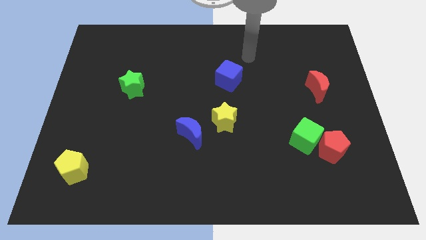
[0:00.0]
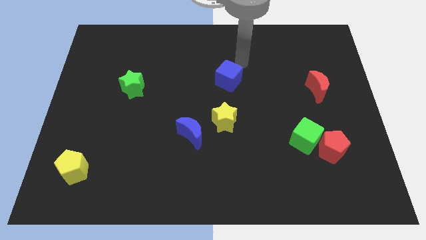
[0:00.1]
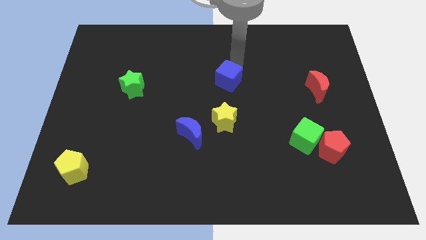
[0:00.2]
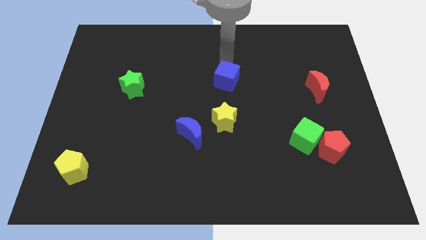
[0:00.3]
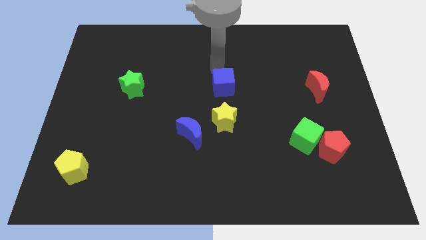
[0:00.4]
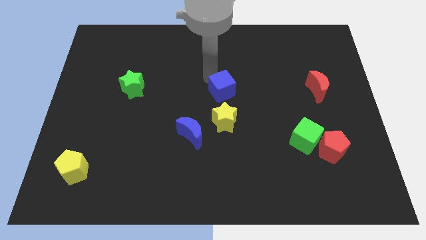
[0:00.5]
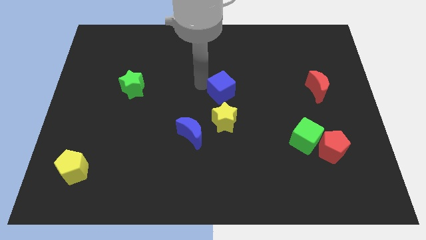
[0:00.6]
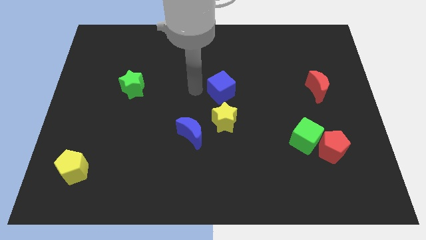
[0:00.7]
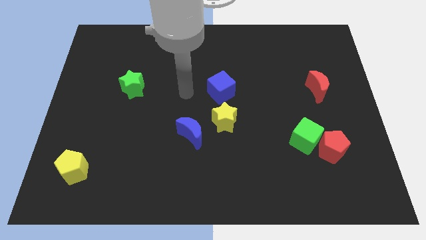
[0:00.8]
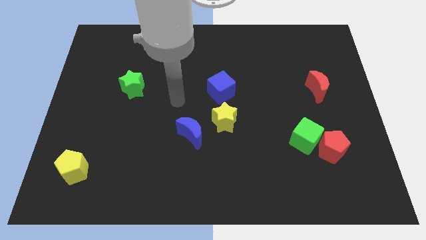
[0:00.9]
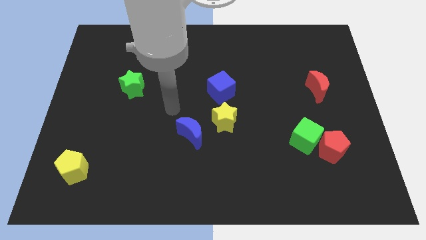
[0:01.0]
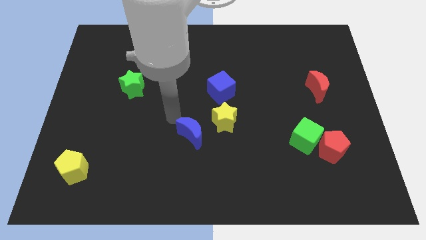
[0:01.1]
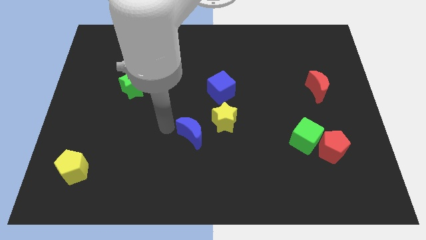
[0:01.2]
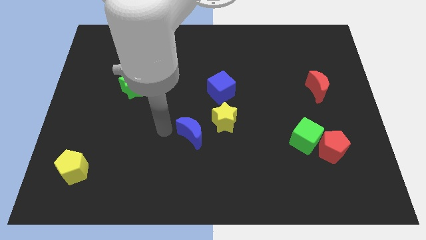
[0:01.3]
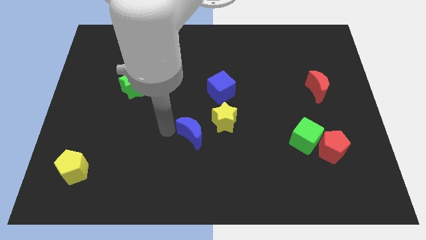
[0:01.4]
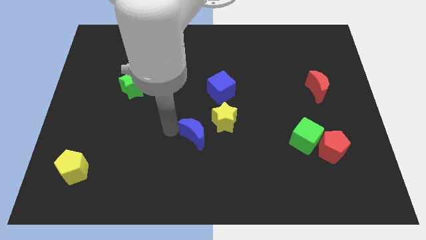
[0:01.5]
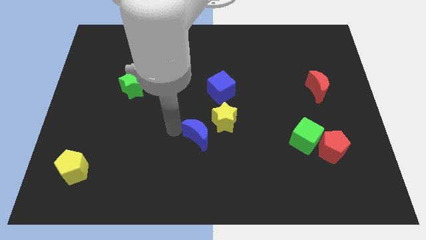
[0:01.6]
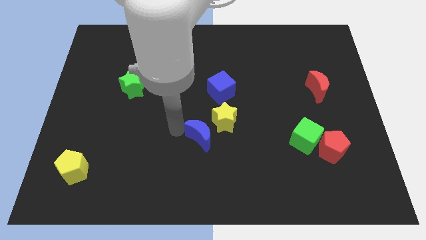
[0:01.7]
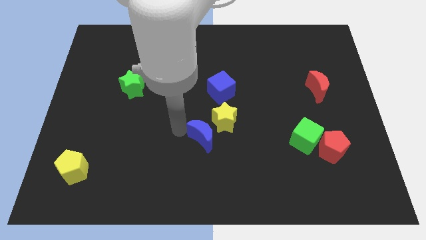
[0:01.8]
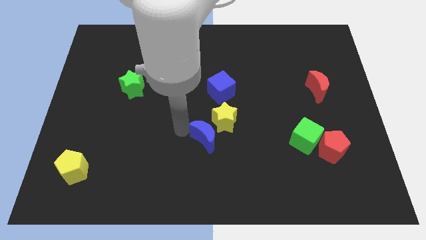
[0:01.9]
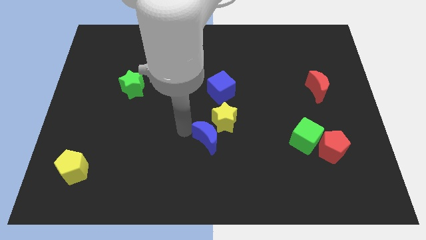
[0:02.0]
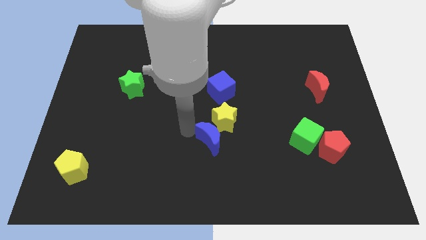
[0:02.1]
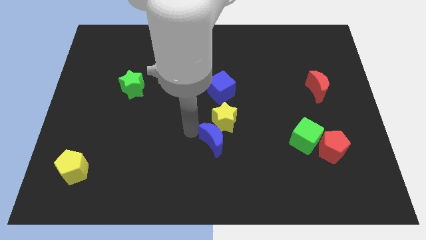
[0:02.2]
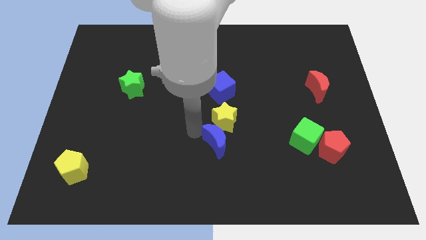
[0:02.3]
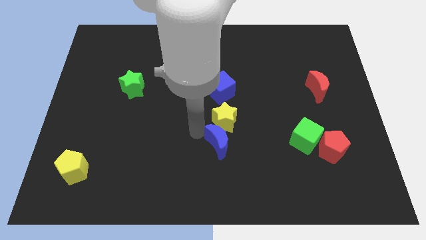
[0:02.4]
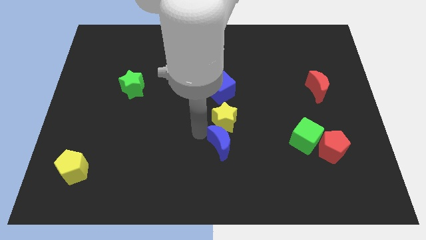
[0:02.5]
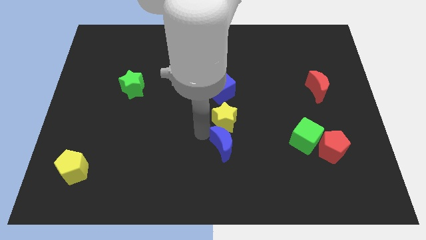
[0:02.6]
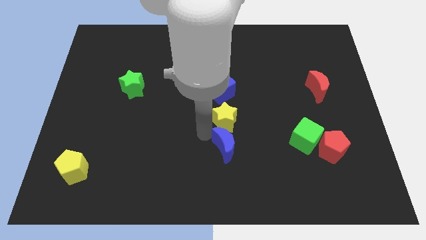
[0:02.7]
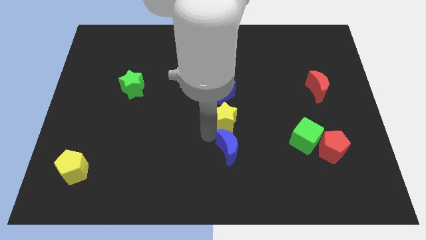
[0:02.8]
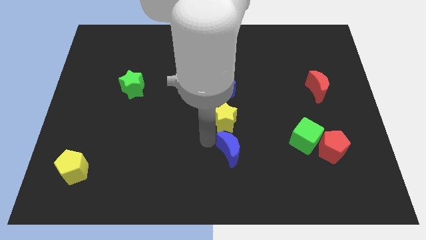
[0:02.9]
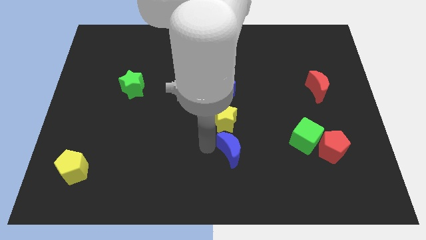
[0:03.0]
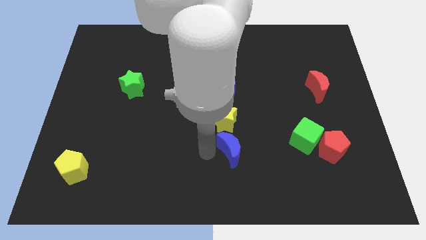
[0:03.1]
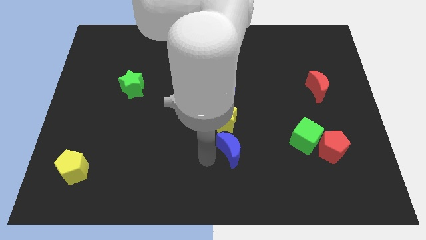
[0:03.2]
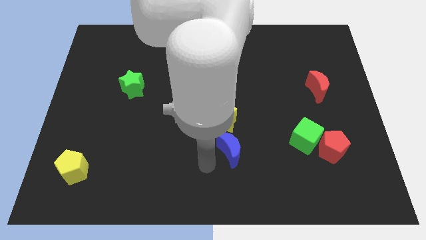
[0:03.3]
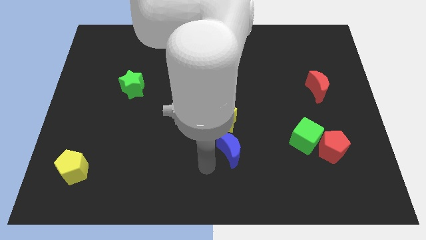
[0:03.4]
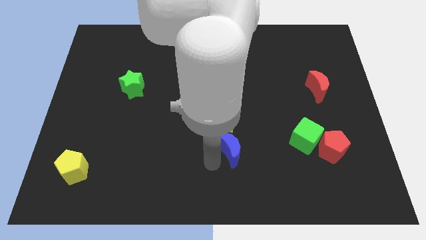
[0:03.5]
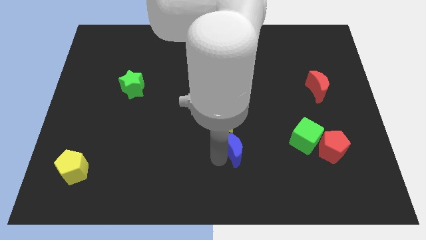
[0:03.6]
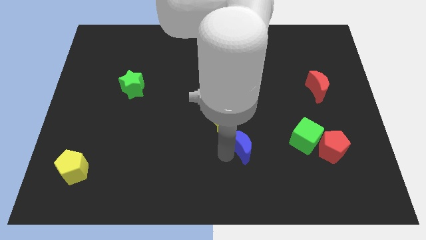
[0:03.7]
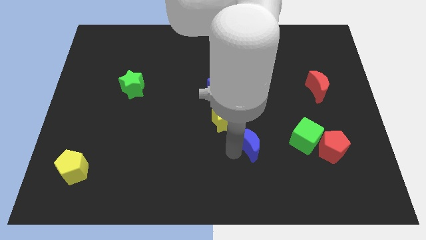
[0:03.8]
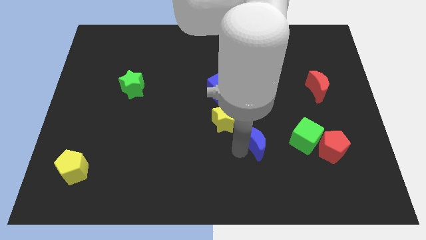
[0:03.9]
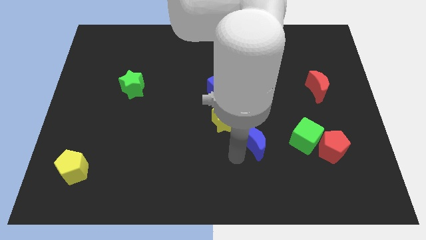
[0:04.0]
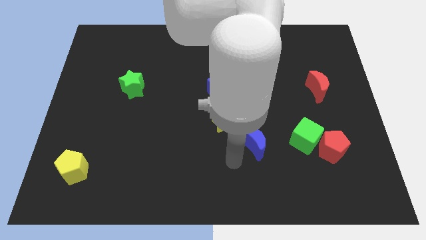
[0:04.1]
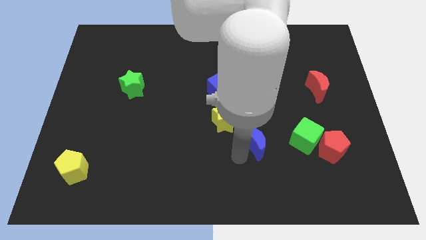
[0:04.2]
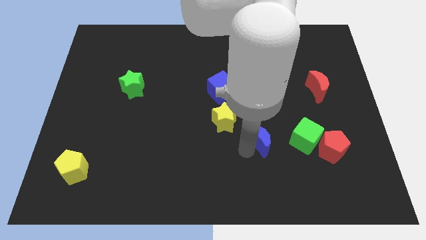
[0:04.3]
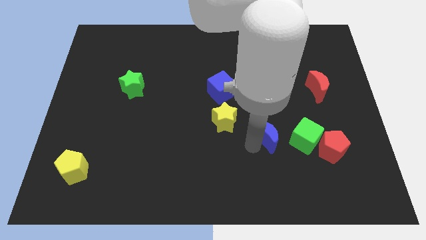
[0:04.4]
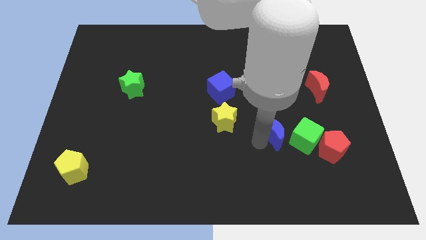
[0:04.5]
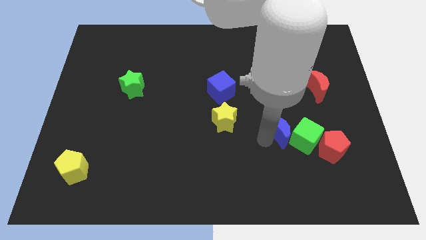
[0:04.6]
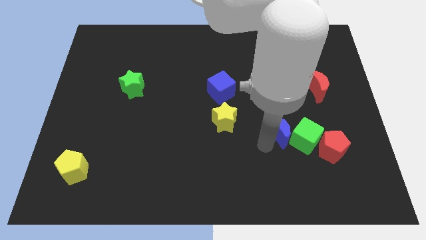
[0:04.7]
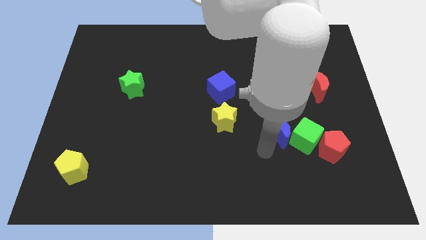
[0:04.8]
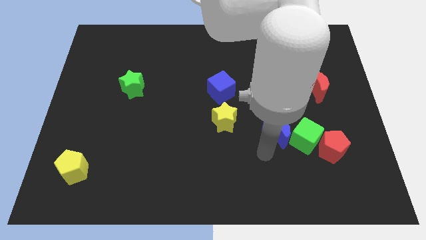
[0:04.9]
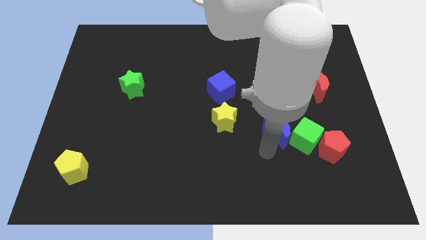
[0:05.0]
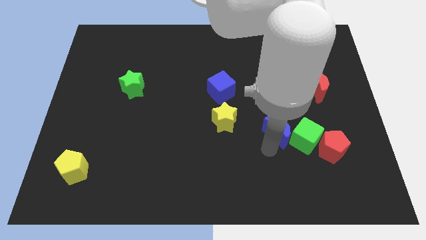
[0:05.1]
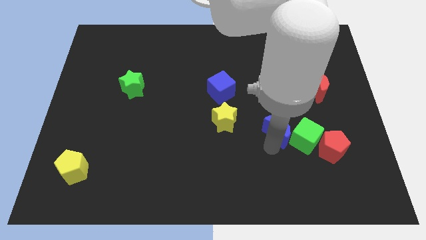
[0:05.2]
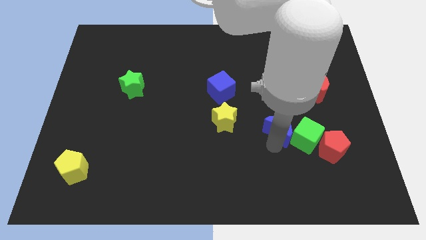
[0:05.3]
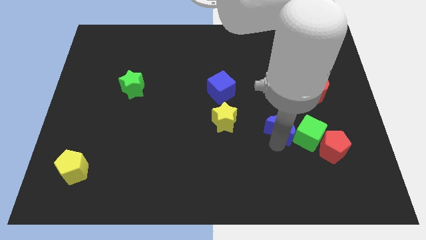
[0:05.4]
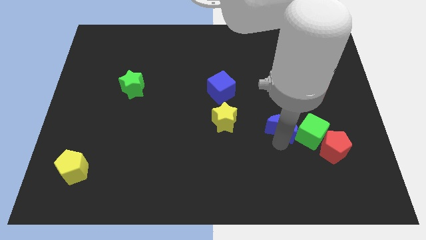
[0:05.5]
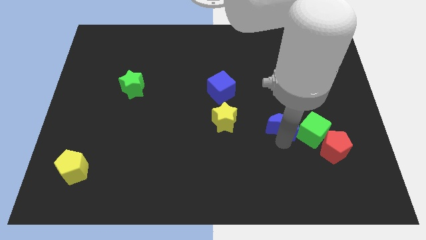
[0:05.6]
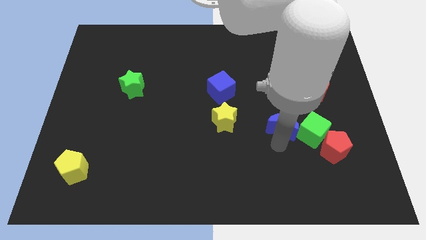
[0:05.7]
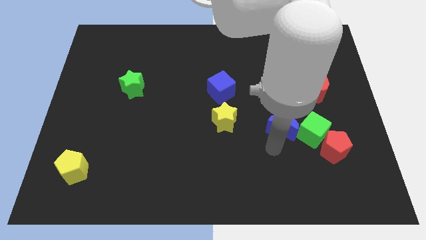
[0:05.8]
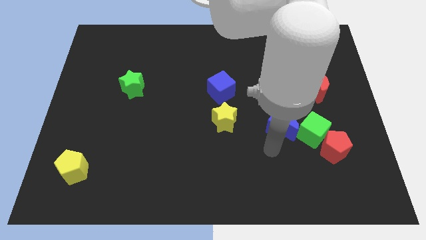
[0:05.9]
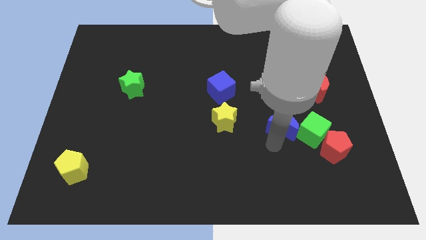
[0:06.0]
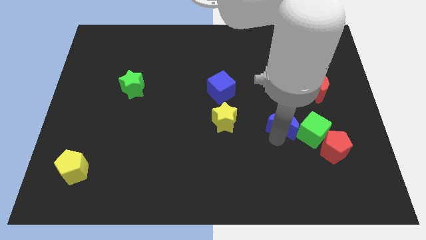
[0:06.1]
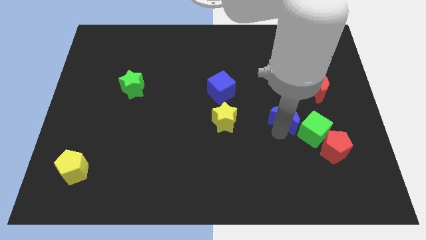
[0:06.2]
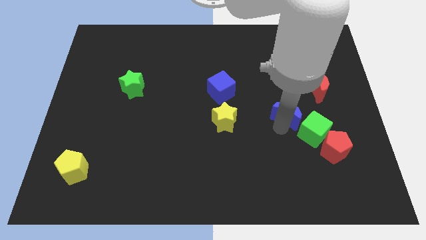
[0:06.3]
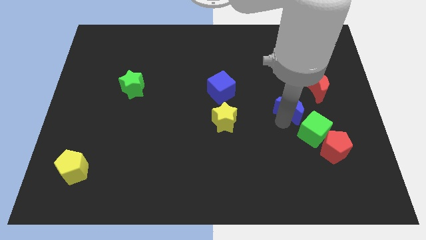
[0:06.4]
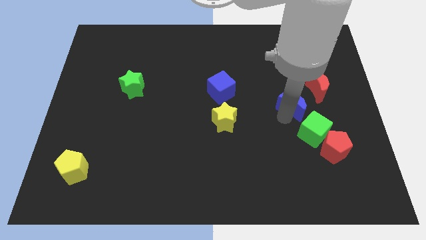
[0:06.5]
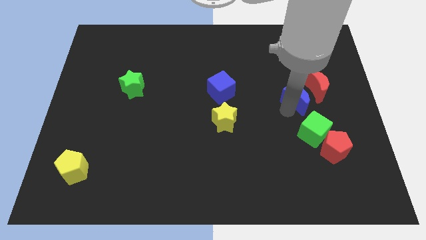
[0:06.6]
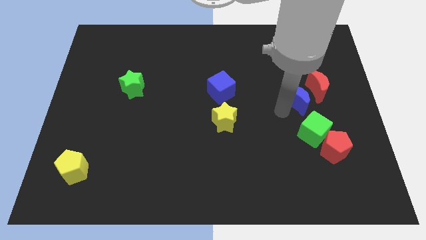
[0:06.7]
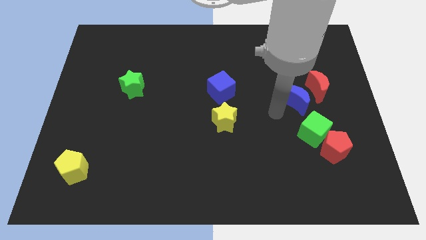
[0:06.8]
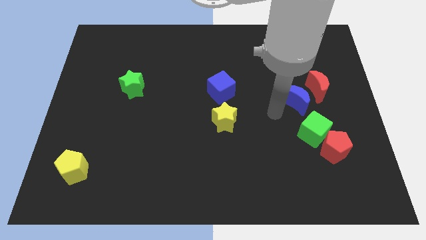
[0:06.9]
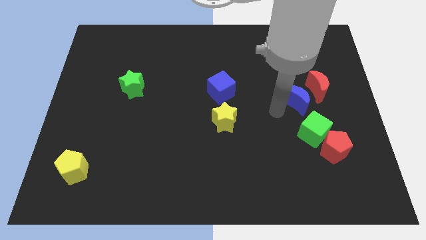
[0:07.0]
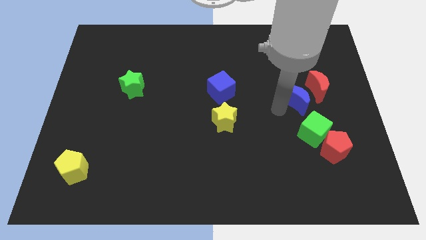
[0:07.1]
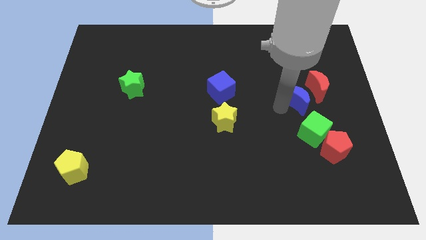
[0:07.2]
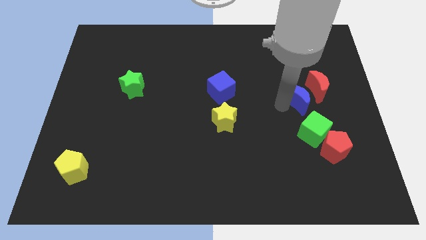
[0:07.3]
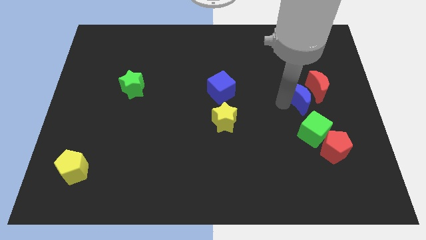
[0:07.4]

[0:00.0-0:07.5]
put the blue moon close to the red moon
